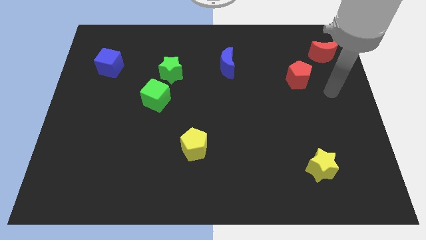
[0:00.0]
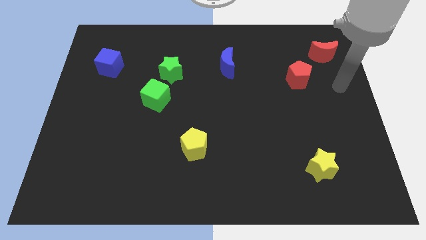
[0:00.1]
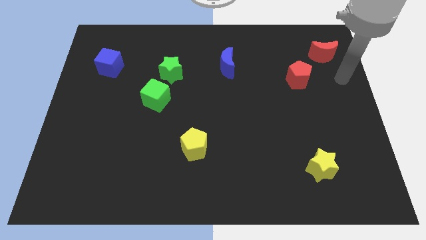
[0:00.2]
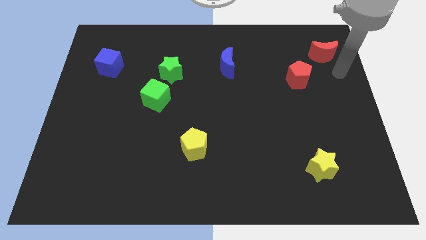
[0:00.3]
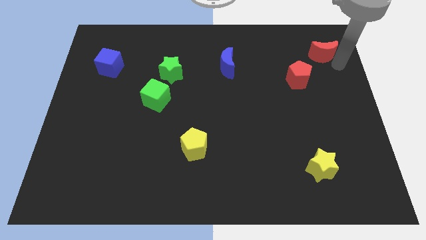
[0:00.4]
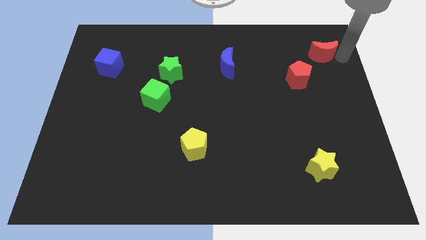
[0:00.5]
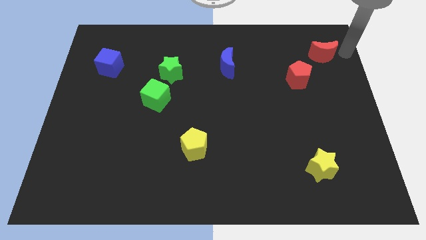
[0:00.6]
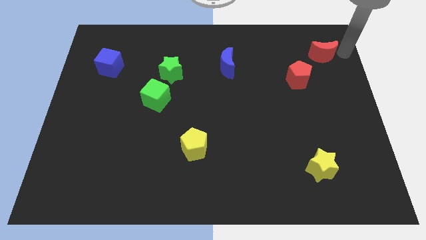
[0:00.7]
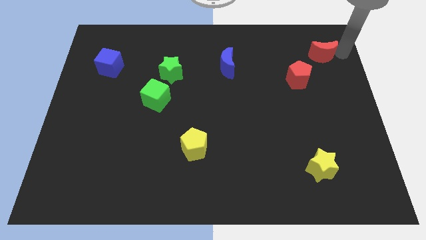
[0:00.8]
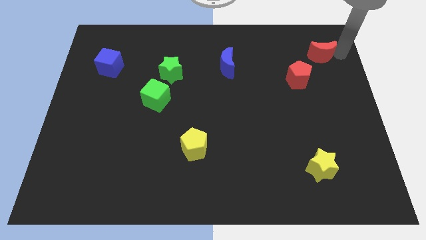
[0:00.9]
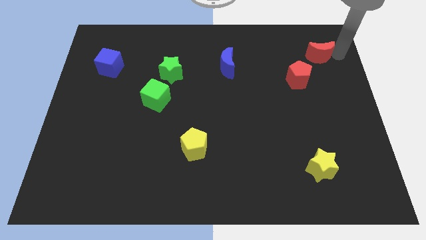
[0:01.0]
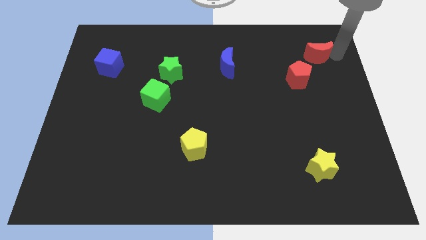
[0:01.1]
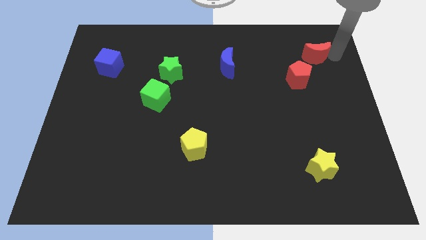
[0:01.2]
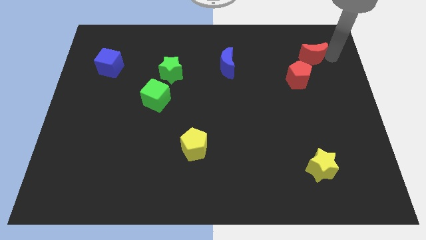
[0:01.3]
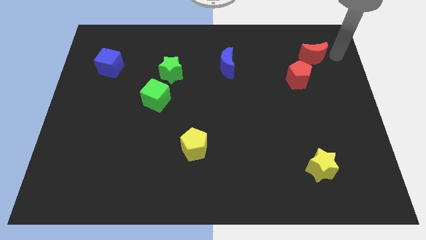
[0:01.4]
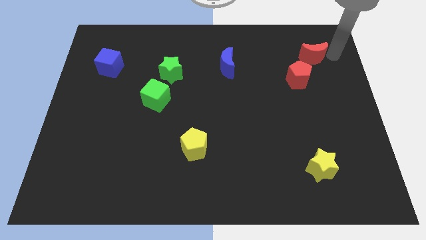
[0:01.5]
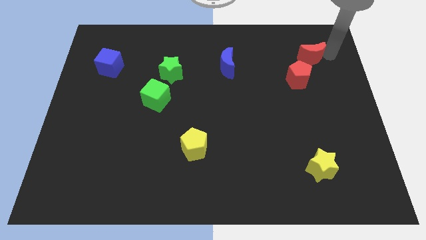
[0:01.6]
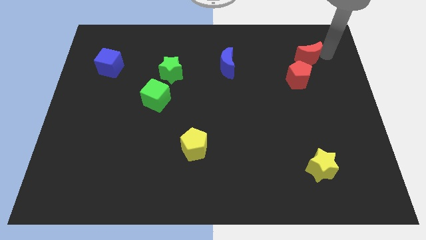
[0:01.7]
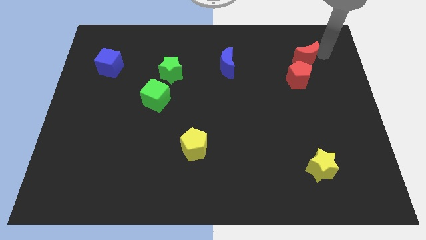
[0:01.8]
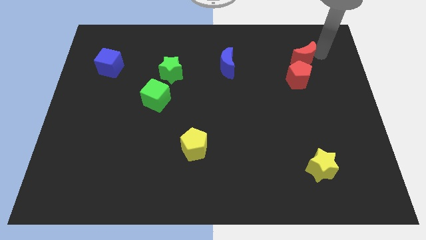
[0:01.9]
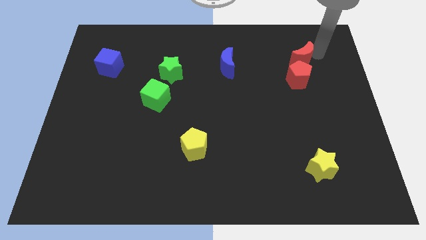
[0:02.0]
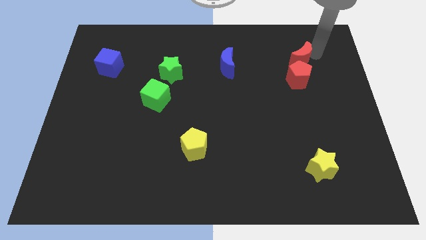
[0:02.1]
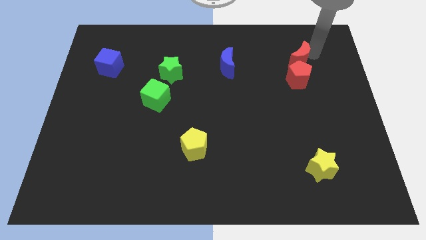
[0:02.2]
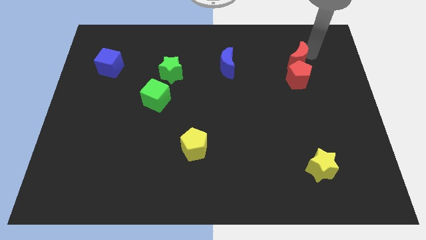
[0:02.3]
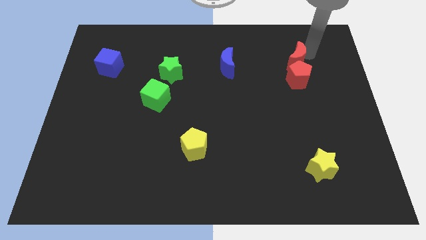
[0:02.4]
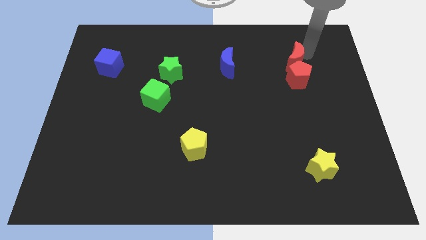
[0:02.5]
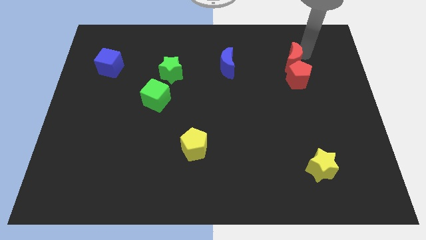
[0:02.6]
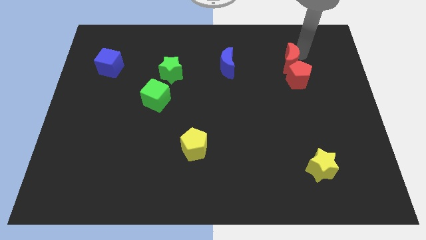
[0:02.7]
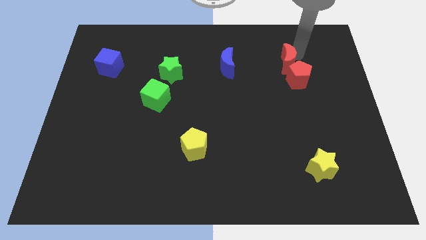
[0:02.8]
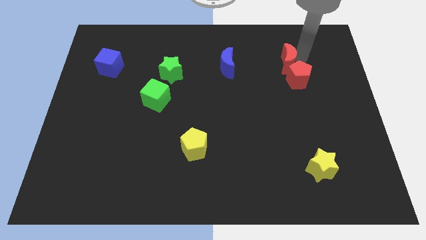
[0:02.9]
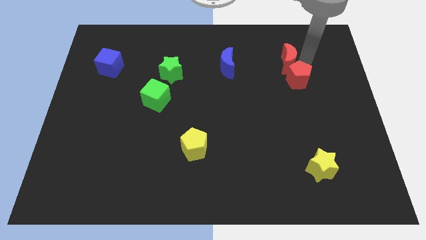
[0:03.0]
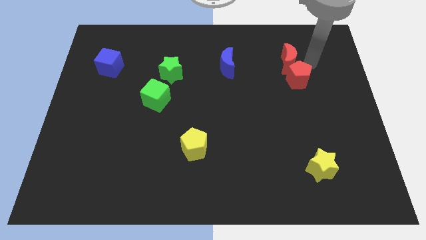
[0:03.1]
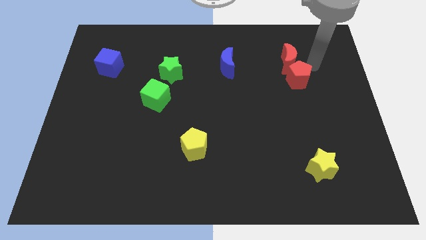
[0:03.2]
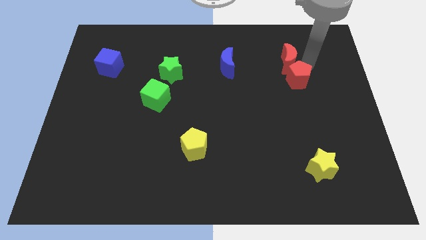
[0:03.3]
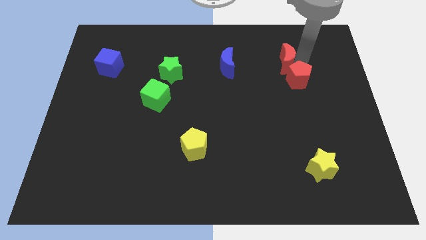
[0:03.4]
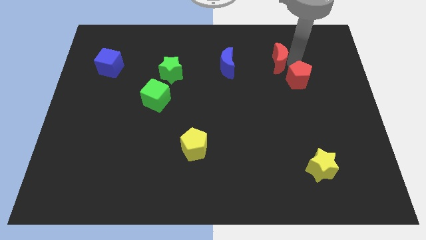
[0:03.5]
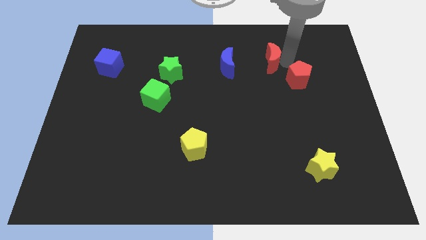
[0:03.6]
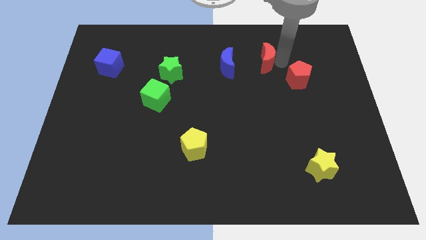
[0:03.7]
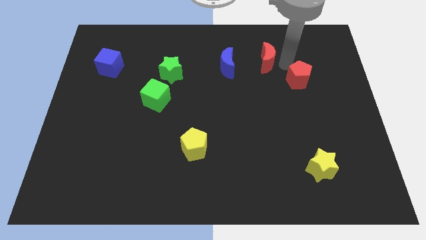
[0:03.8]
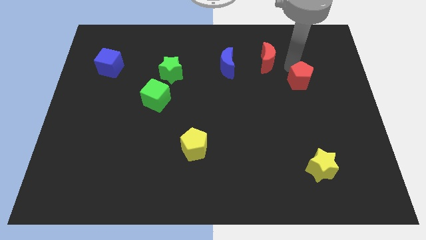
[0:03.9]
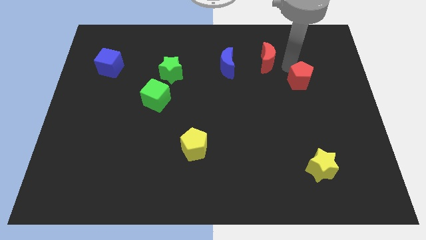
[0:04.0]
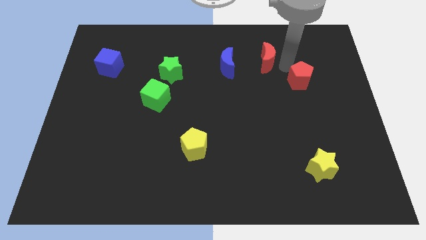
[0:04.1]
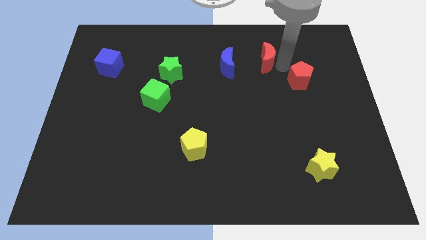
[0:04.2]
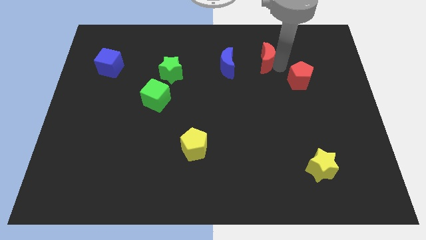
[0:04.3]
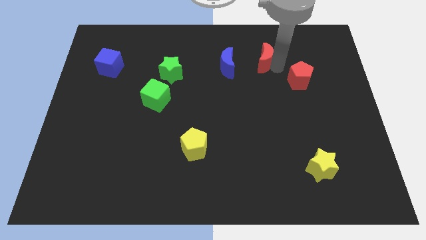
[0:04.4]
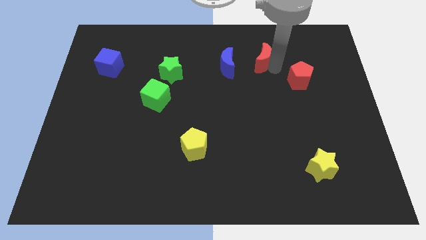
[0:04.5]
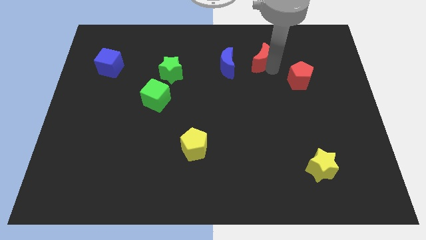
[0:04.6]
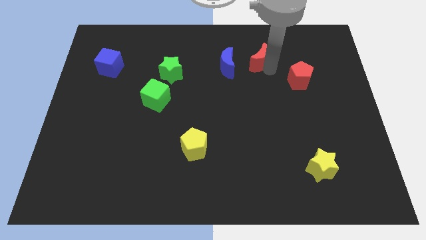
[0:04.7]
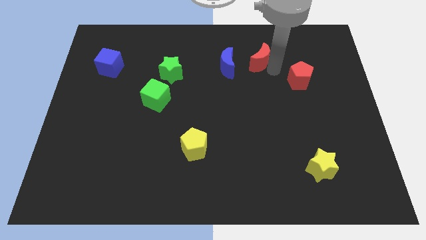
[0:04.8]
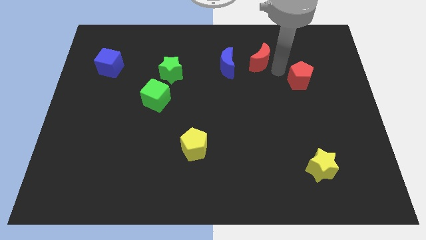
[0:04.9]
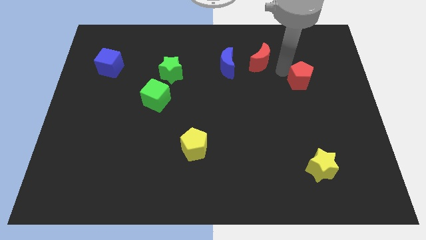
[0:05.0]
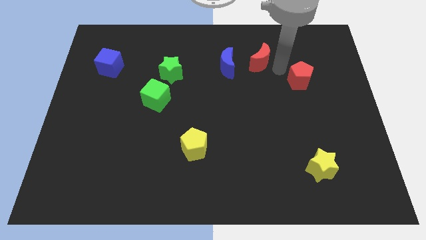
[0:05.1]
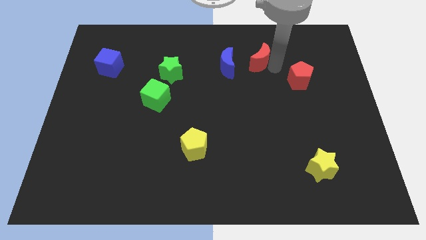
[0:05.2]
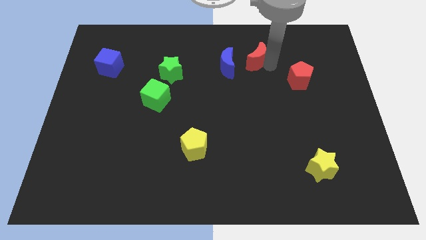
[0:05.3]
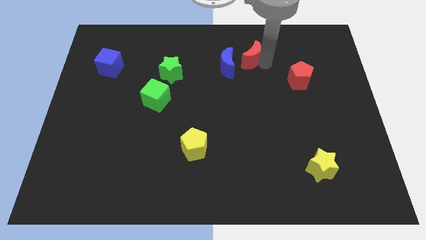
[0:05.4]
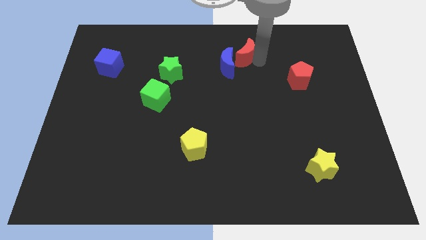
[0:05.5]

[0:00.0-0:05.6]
move the red moon left

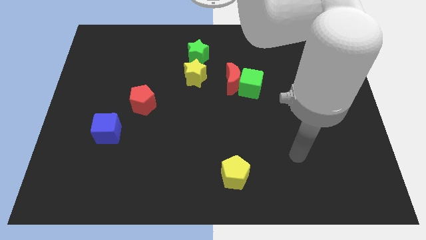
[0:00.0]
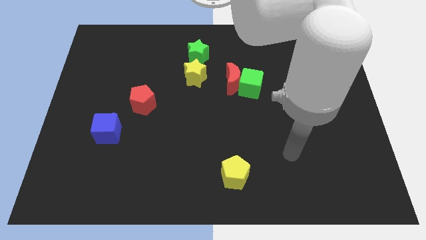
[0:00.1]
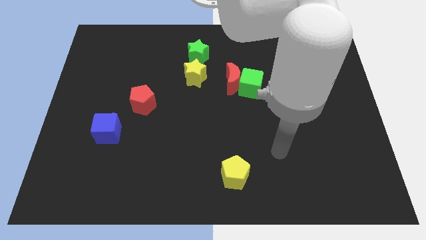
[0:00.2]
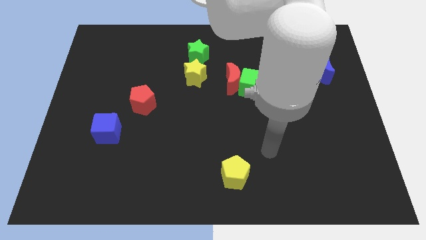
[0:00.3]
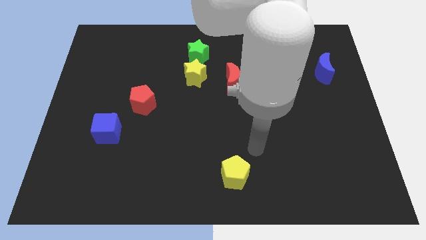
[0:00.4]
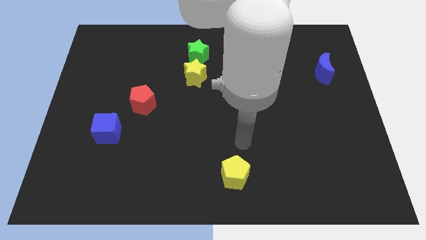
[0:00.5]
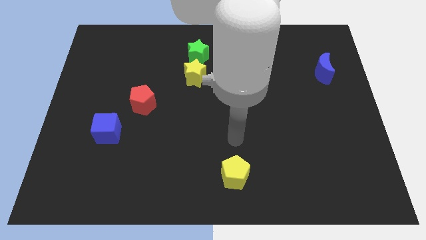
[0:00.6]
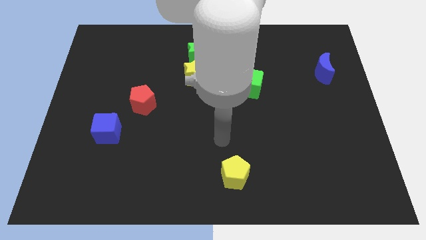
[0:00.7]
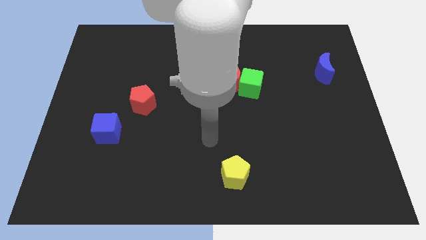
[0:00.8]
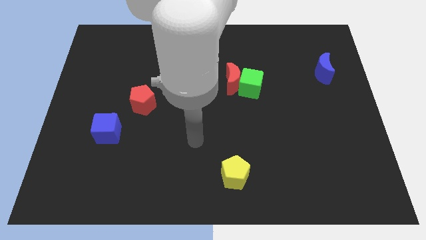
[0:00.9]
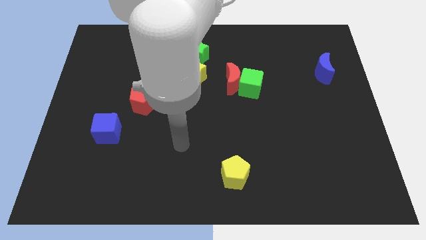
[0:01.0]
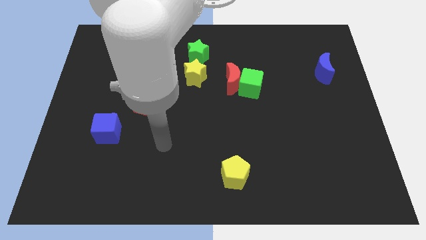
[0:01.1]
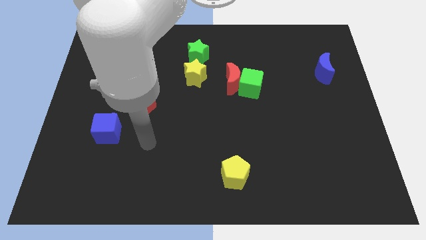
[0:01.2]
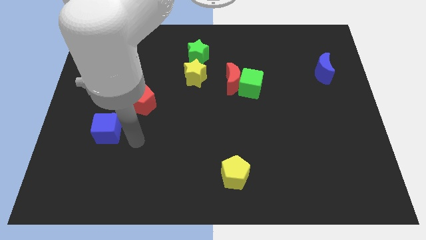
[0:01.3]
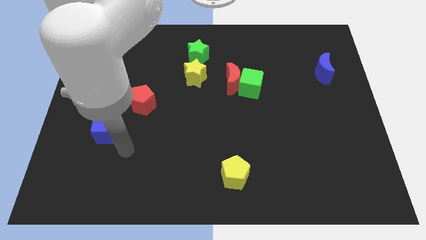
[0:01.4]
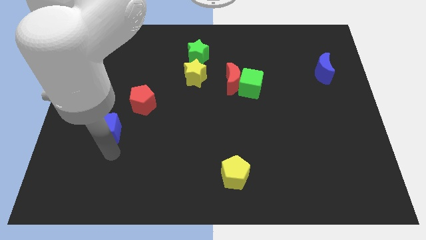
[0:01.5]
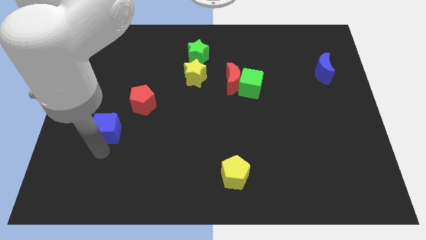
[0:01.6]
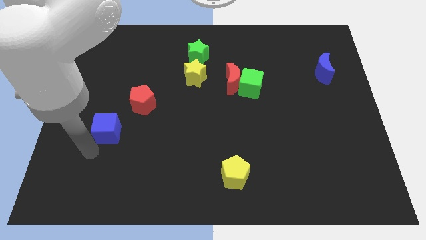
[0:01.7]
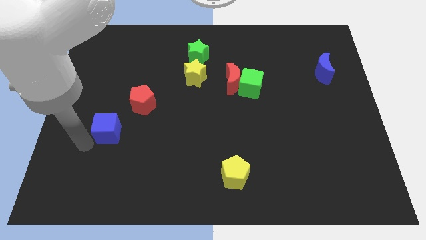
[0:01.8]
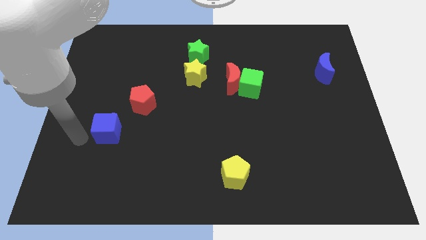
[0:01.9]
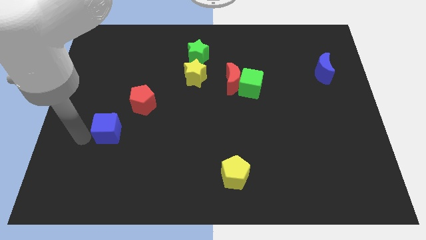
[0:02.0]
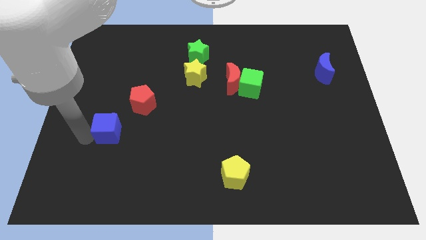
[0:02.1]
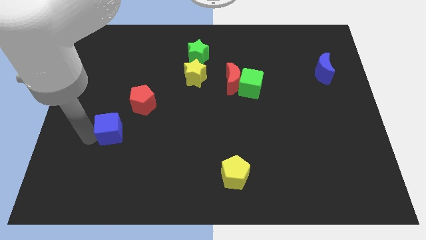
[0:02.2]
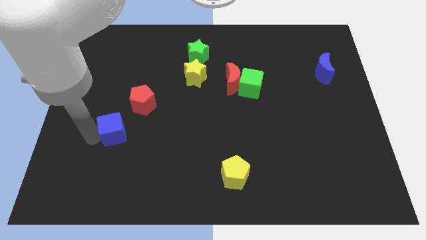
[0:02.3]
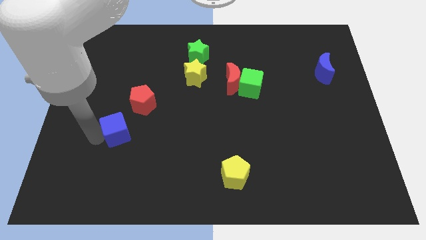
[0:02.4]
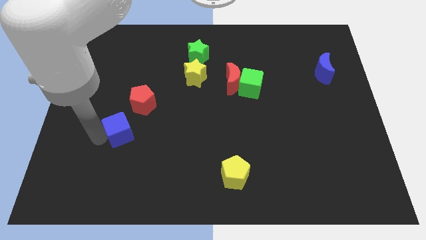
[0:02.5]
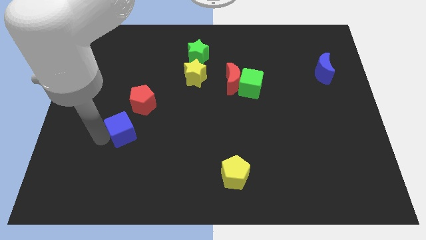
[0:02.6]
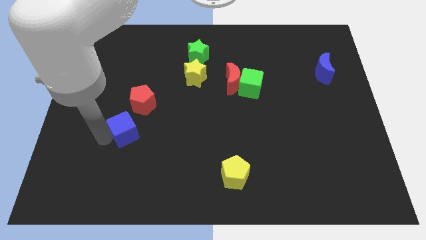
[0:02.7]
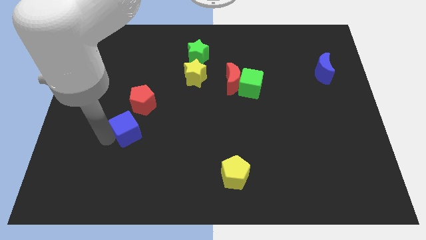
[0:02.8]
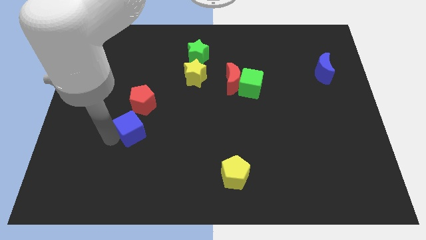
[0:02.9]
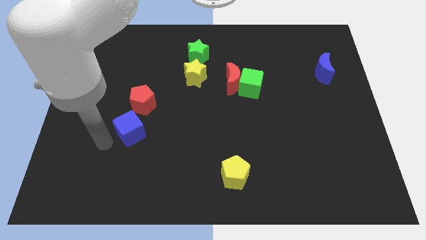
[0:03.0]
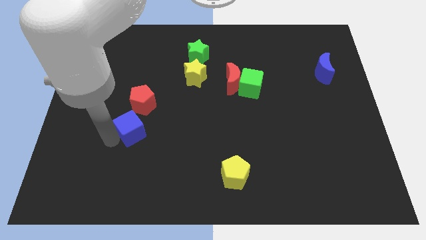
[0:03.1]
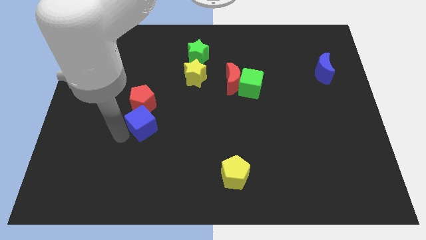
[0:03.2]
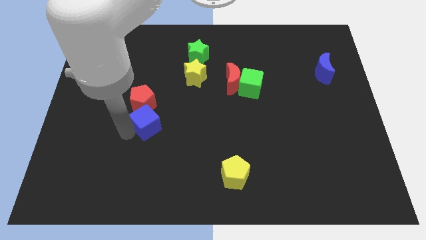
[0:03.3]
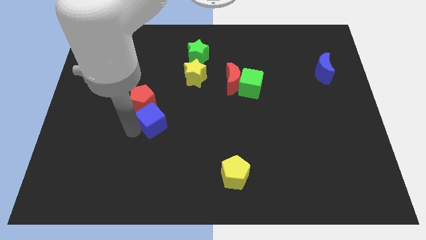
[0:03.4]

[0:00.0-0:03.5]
move the blue cube upwards and then right a little bit
